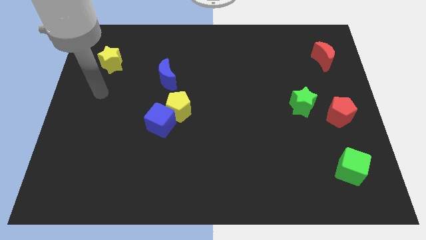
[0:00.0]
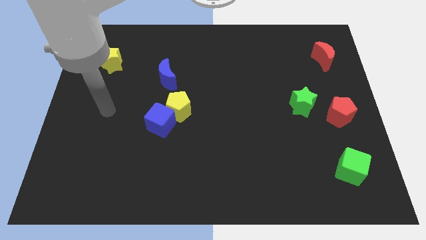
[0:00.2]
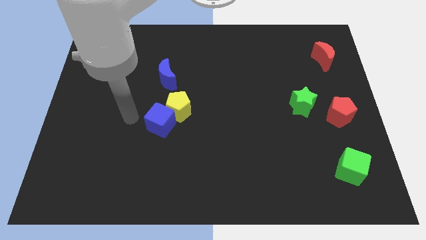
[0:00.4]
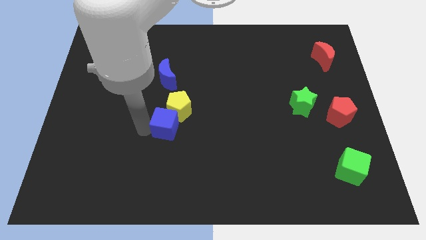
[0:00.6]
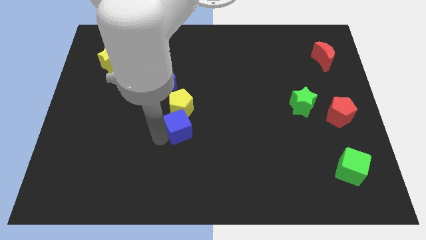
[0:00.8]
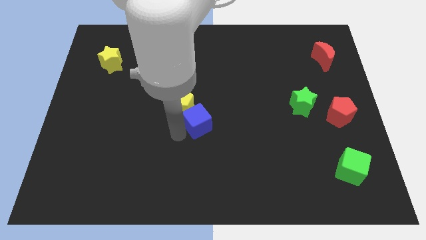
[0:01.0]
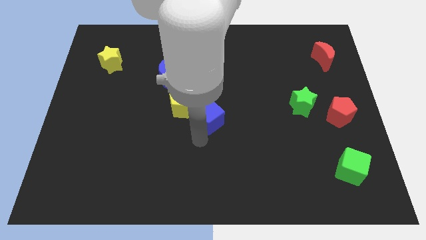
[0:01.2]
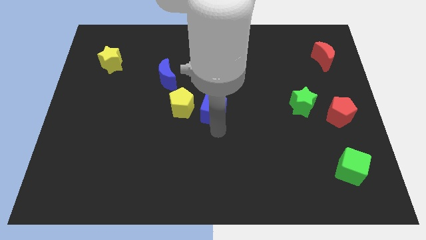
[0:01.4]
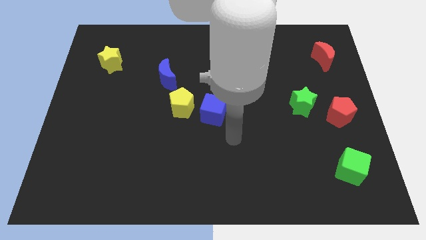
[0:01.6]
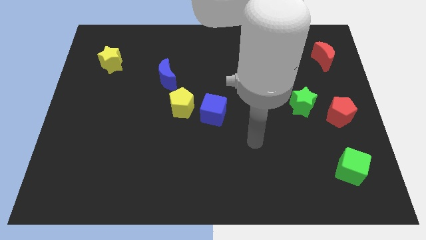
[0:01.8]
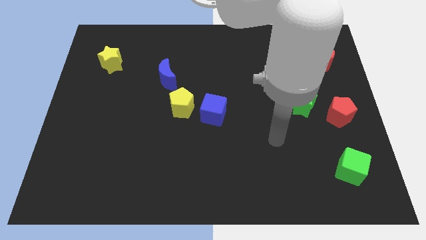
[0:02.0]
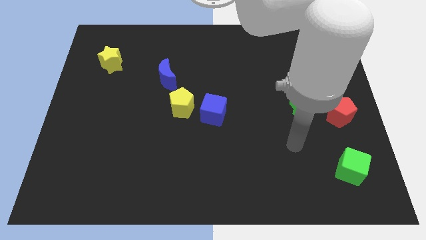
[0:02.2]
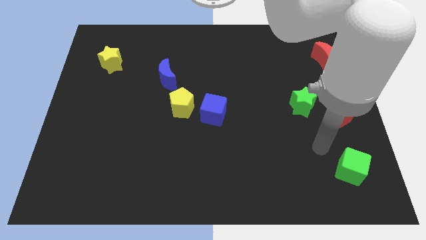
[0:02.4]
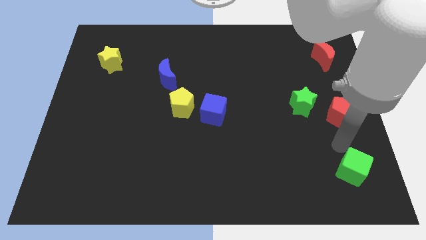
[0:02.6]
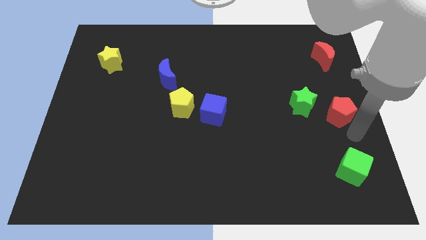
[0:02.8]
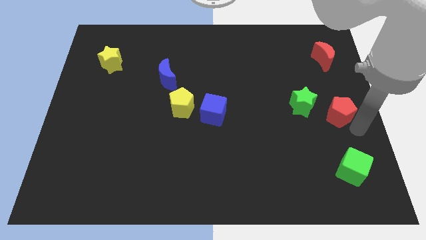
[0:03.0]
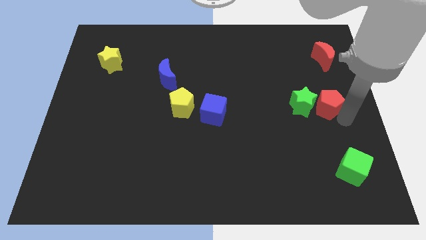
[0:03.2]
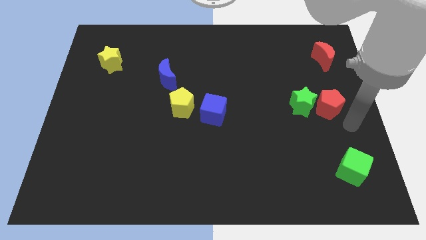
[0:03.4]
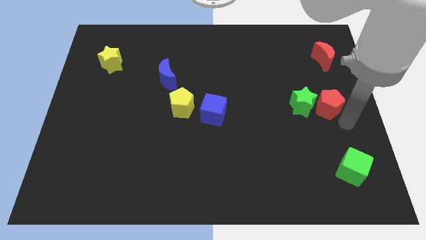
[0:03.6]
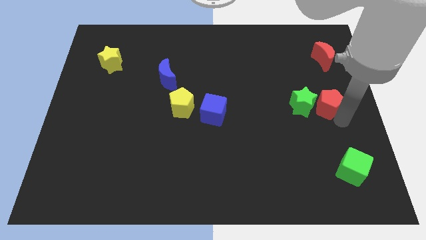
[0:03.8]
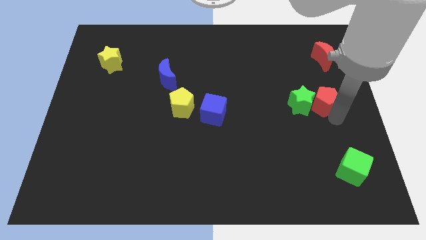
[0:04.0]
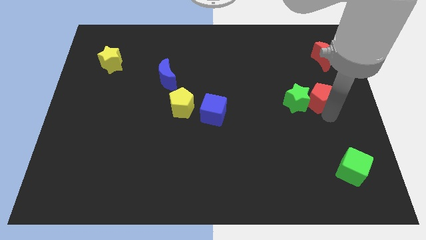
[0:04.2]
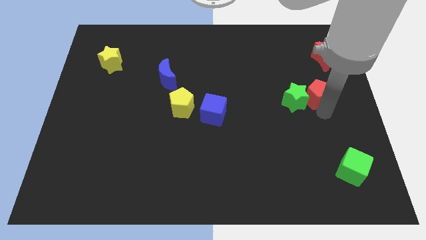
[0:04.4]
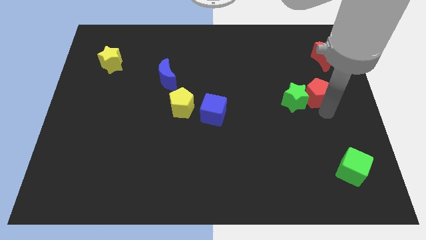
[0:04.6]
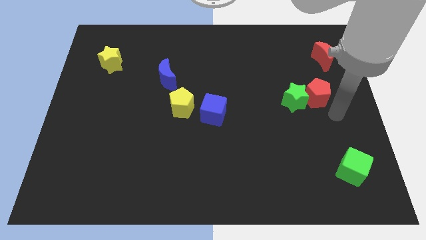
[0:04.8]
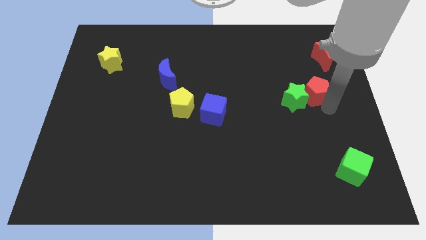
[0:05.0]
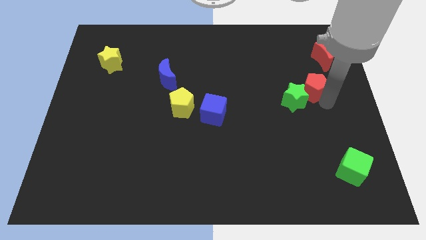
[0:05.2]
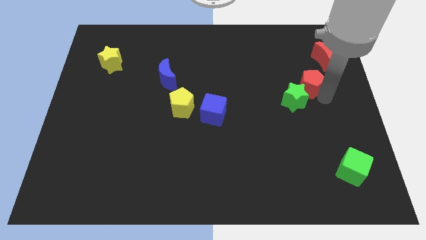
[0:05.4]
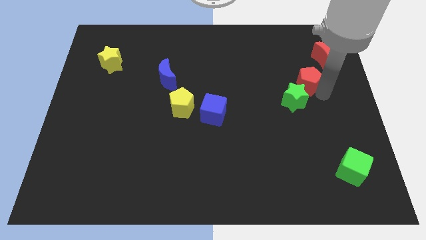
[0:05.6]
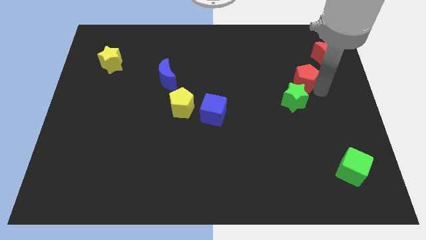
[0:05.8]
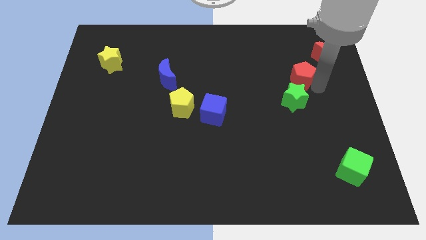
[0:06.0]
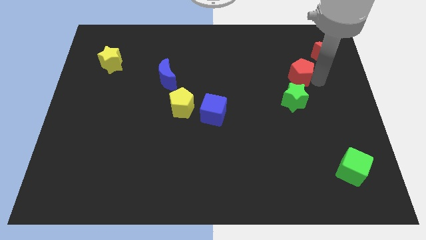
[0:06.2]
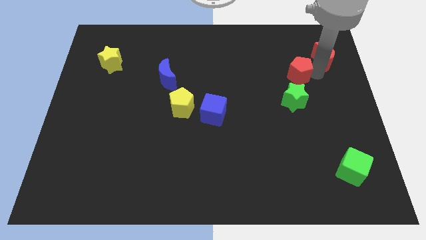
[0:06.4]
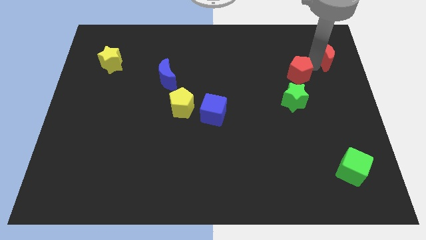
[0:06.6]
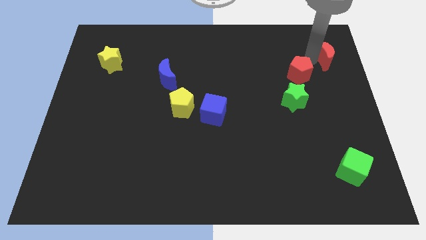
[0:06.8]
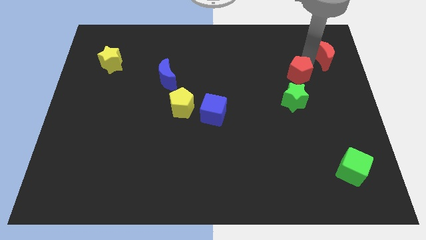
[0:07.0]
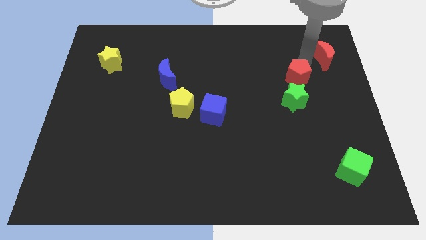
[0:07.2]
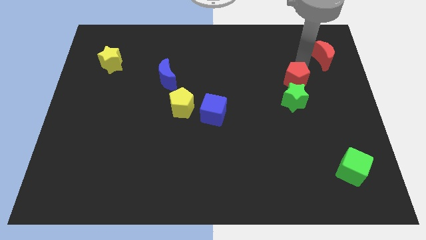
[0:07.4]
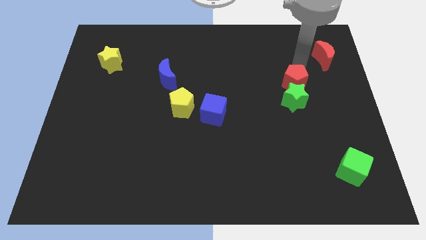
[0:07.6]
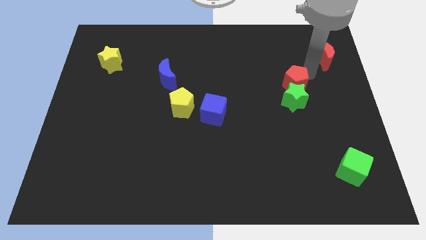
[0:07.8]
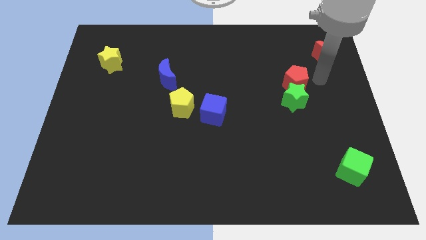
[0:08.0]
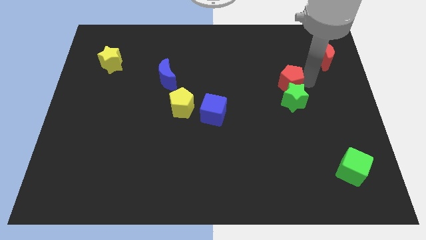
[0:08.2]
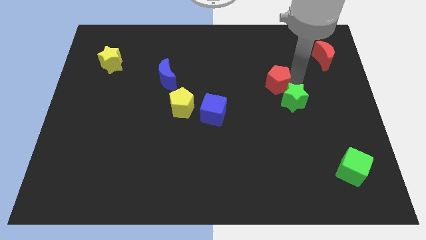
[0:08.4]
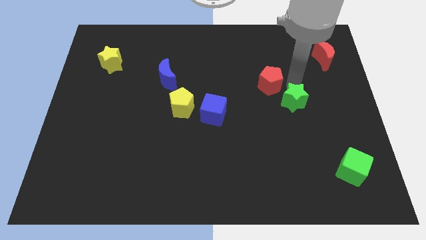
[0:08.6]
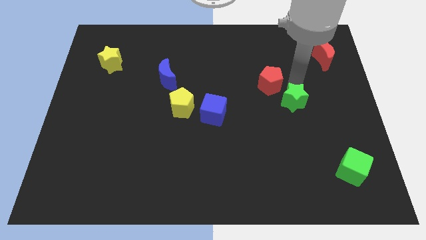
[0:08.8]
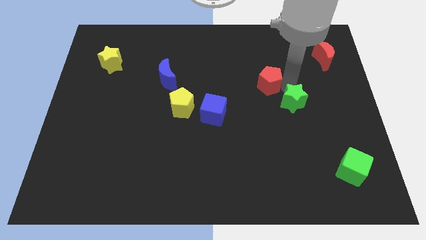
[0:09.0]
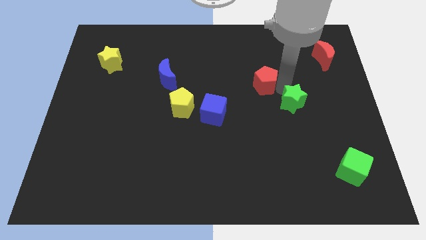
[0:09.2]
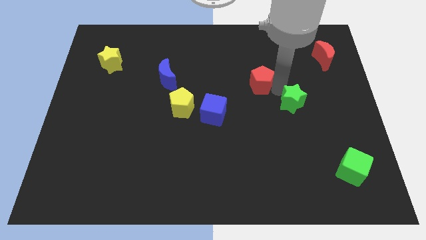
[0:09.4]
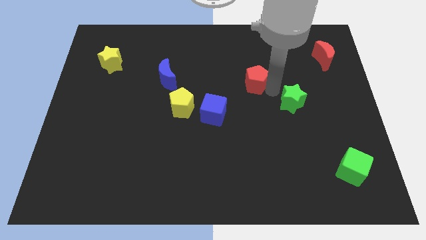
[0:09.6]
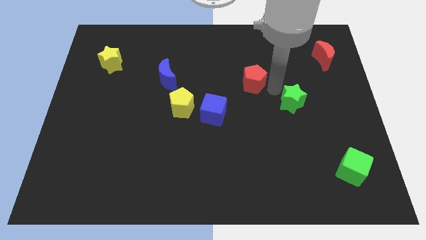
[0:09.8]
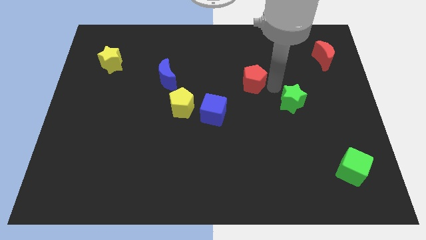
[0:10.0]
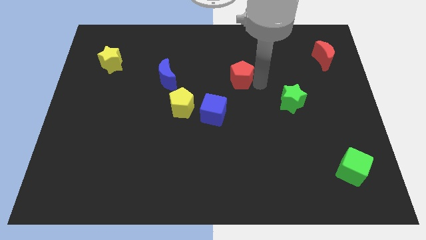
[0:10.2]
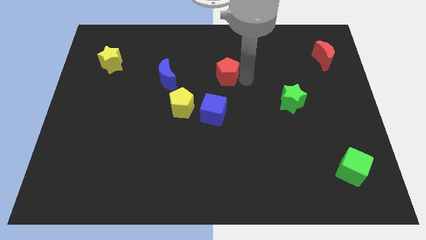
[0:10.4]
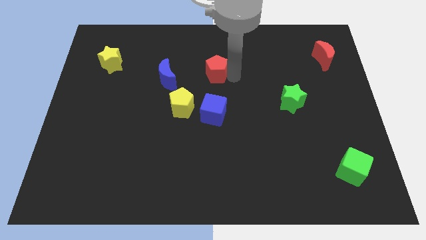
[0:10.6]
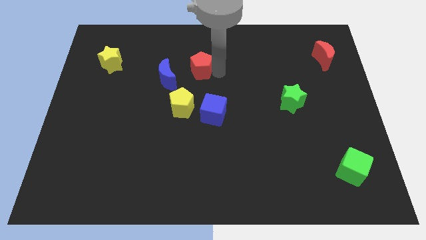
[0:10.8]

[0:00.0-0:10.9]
slide the red pentagon to the top of the yellow pentagon
